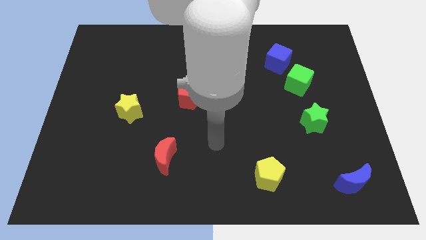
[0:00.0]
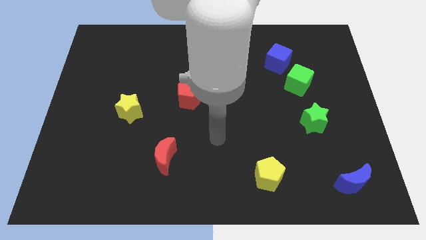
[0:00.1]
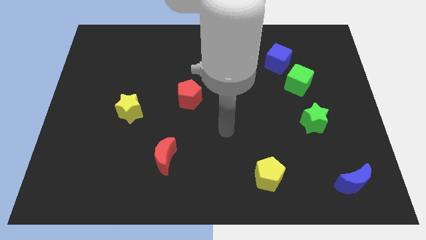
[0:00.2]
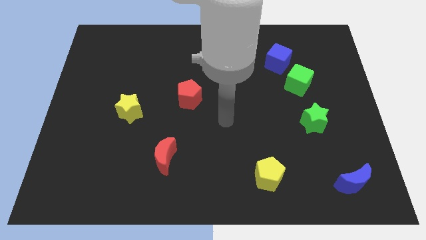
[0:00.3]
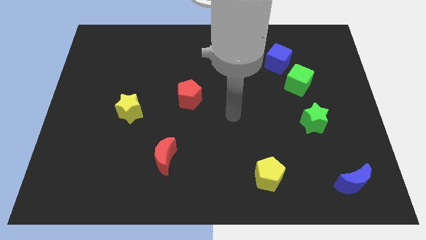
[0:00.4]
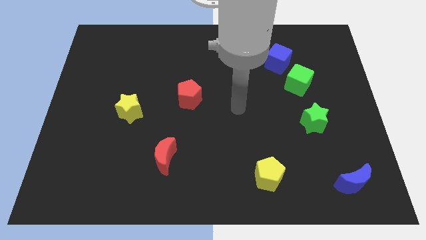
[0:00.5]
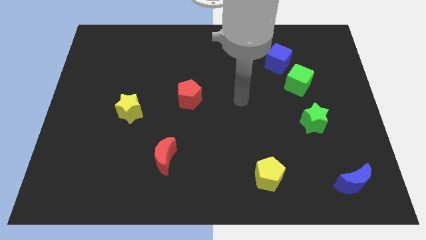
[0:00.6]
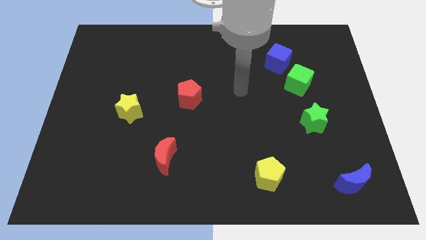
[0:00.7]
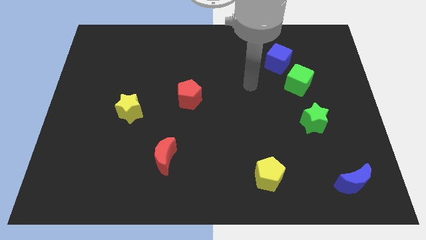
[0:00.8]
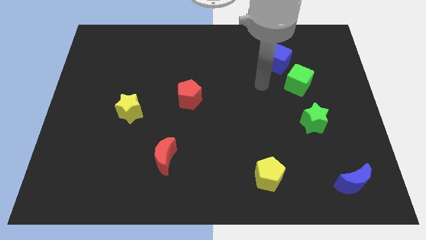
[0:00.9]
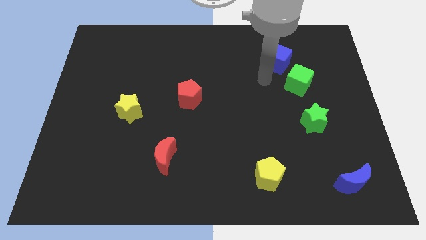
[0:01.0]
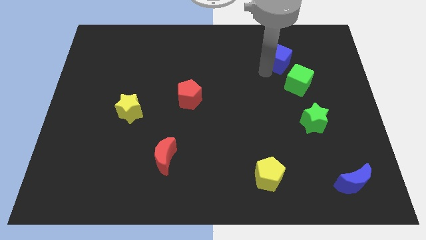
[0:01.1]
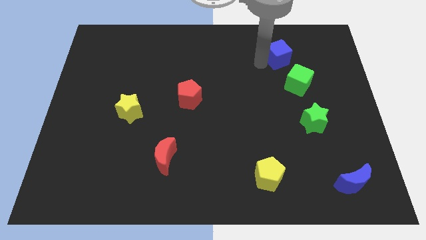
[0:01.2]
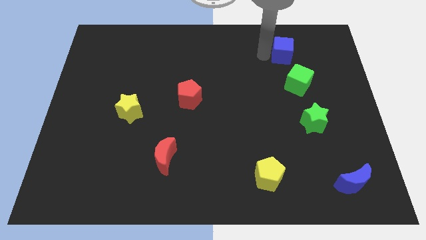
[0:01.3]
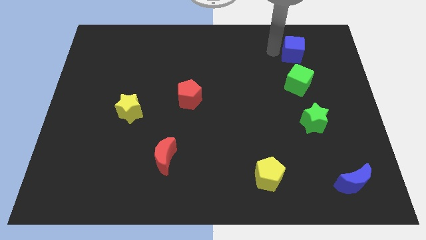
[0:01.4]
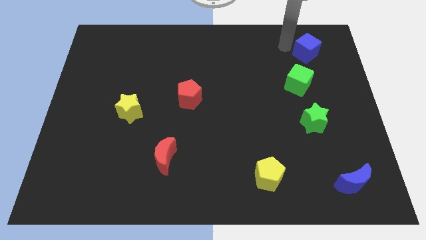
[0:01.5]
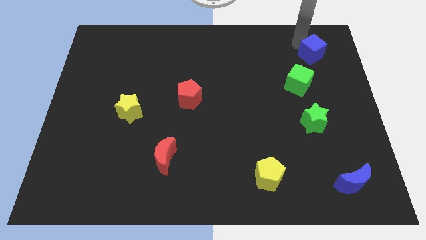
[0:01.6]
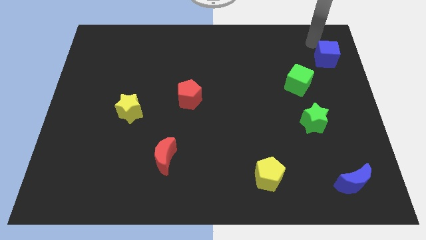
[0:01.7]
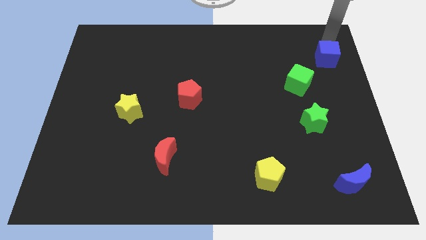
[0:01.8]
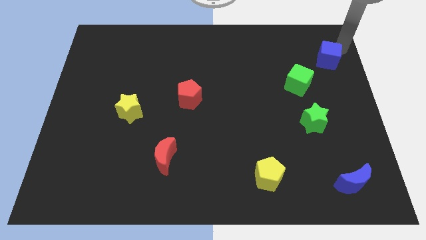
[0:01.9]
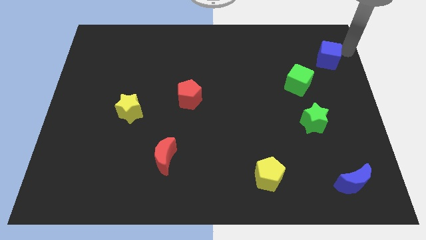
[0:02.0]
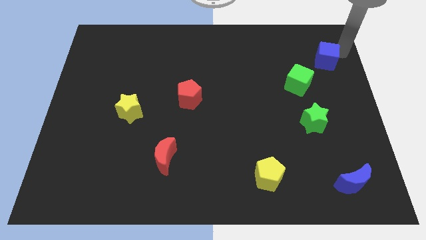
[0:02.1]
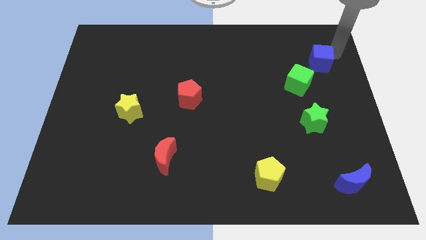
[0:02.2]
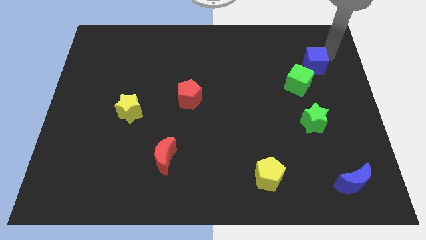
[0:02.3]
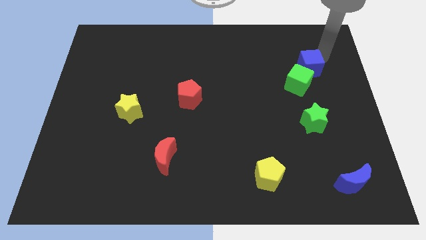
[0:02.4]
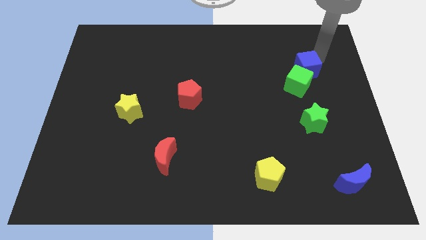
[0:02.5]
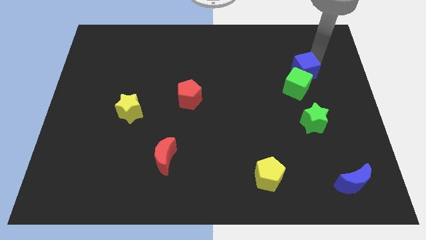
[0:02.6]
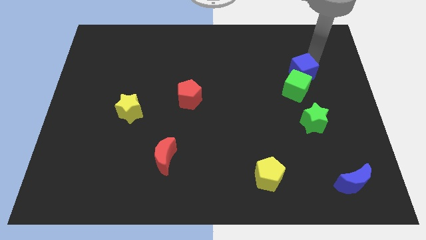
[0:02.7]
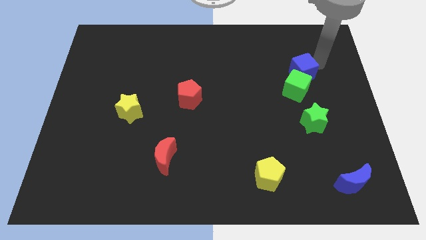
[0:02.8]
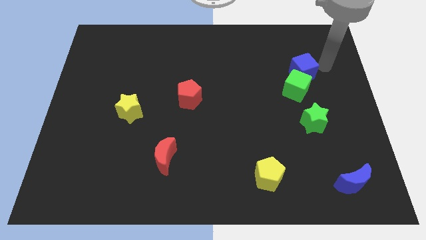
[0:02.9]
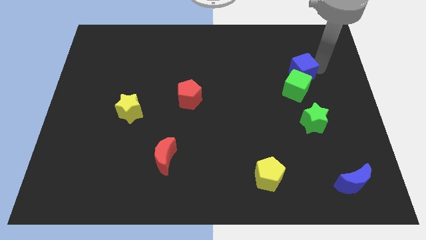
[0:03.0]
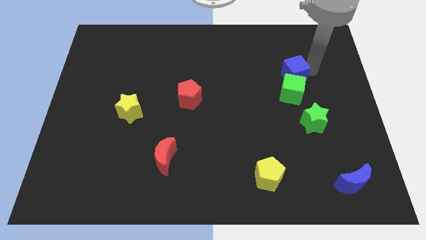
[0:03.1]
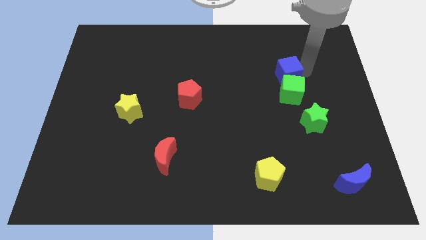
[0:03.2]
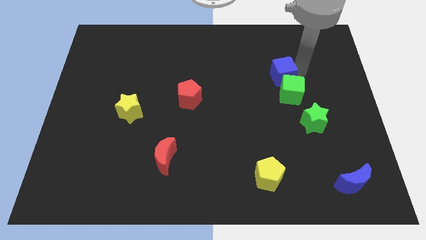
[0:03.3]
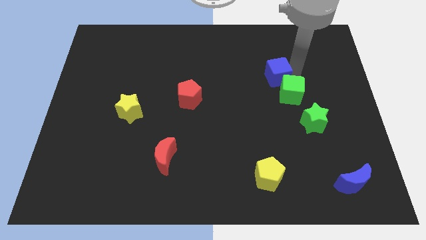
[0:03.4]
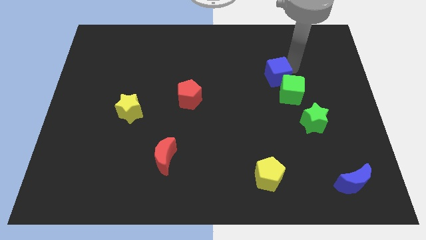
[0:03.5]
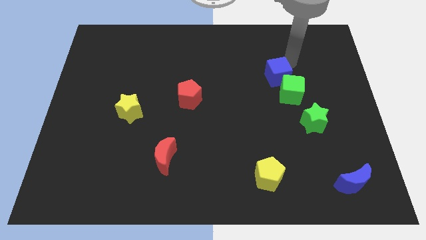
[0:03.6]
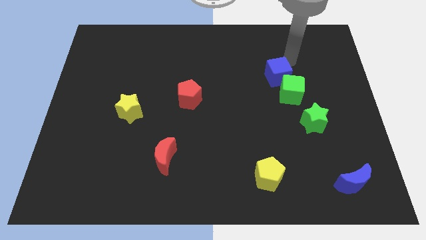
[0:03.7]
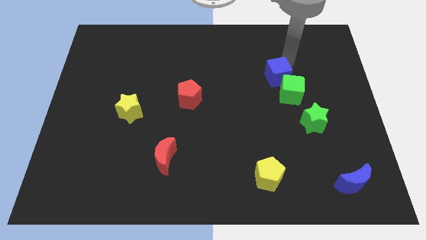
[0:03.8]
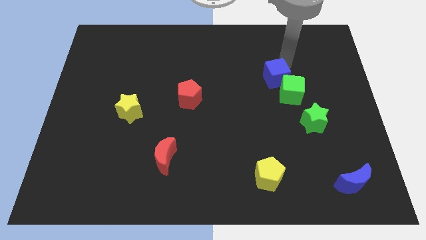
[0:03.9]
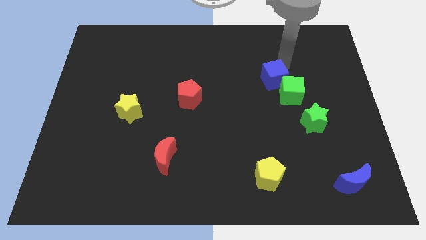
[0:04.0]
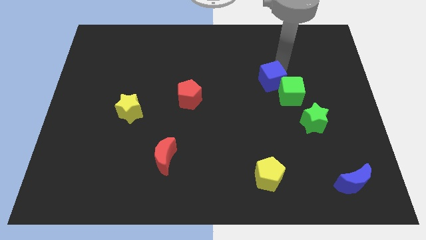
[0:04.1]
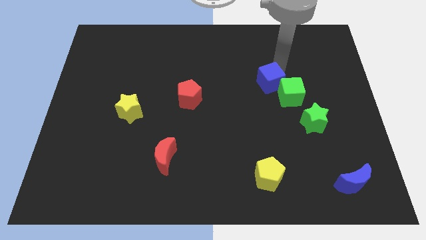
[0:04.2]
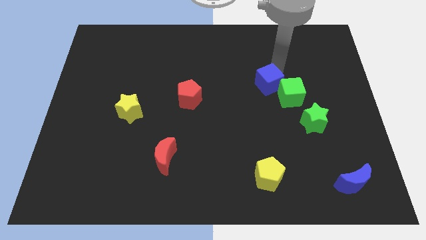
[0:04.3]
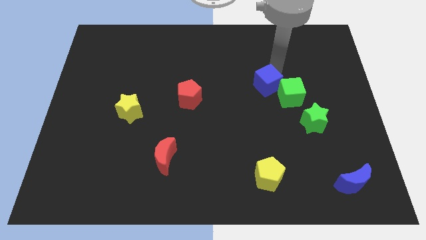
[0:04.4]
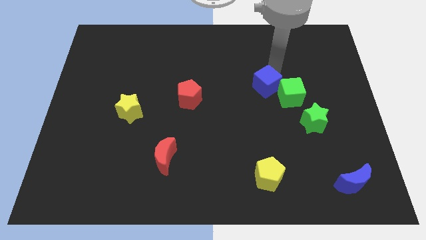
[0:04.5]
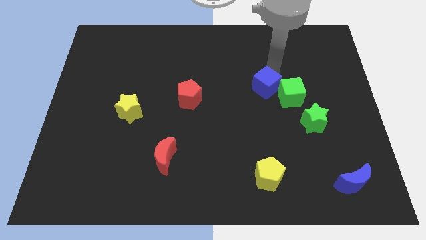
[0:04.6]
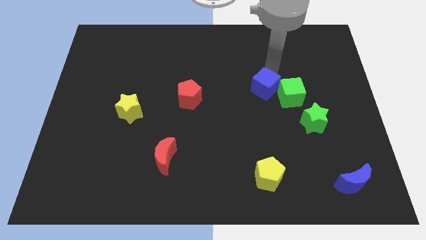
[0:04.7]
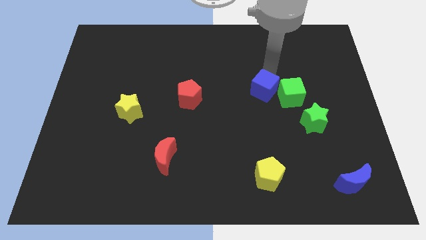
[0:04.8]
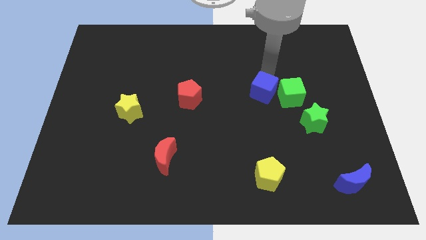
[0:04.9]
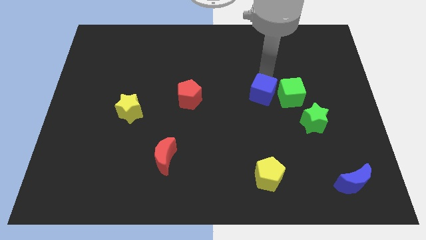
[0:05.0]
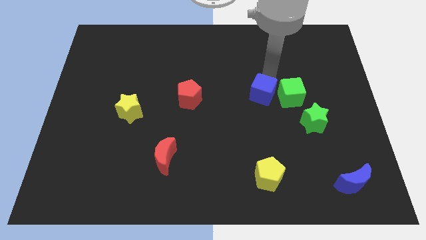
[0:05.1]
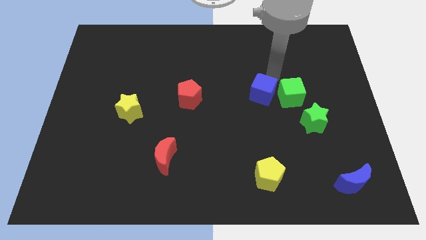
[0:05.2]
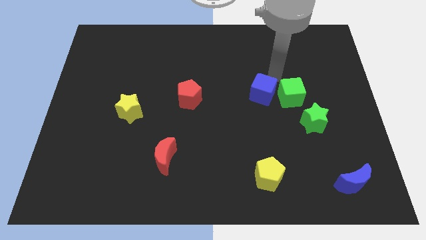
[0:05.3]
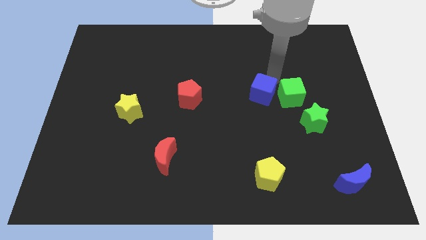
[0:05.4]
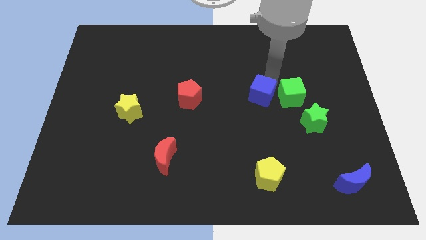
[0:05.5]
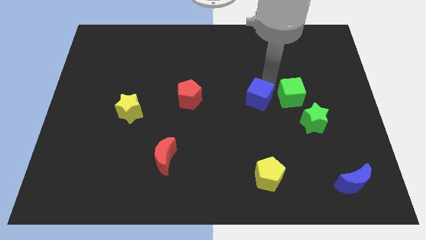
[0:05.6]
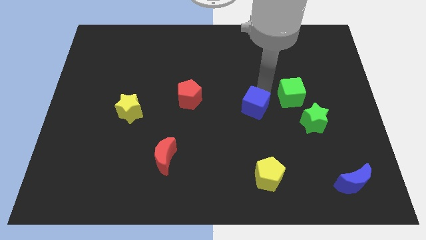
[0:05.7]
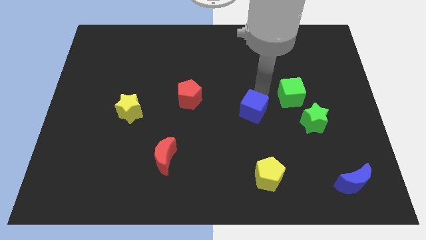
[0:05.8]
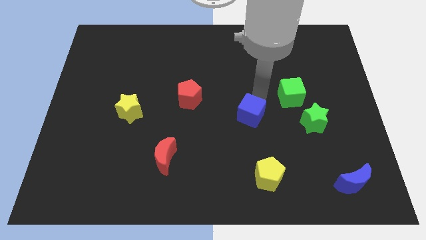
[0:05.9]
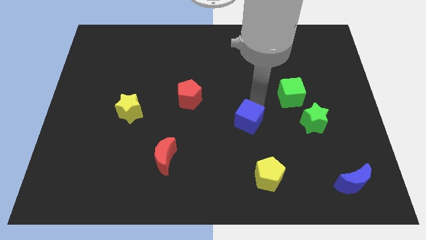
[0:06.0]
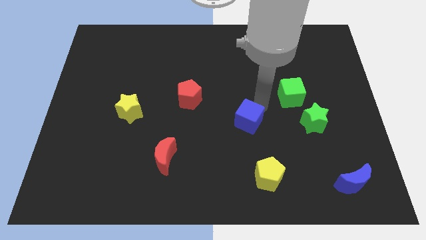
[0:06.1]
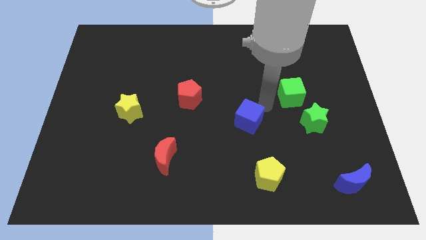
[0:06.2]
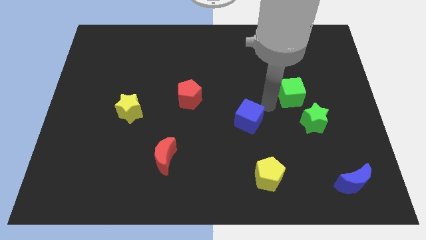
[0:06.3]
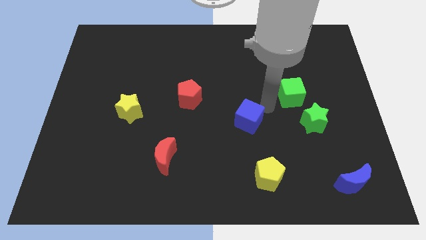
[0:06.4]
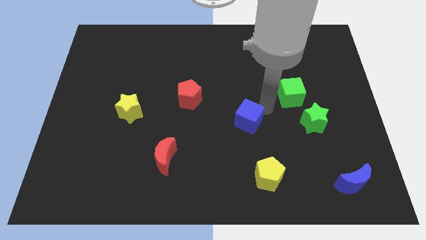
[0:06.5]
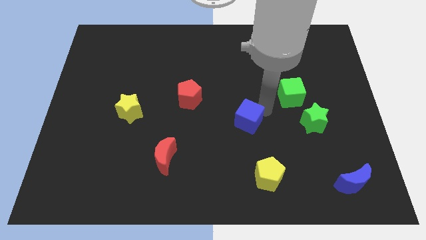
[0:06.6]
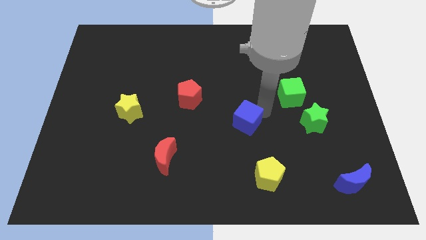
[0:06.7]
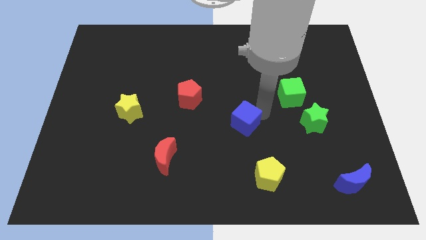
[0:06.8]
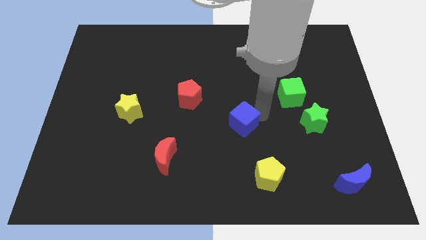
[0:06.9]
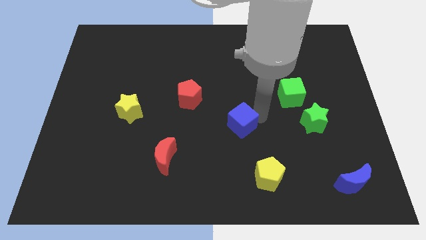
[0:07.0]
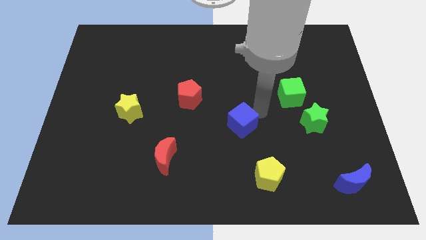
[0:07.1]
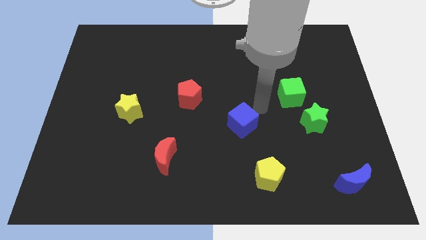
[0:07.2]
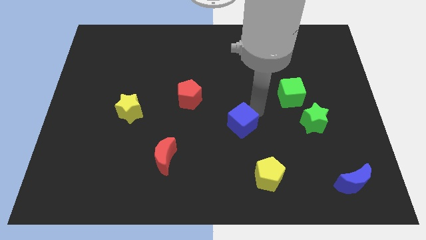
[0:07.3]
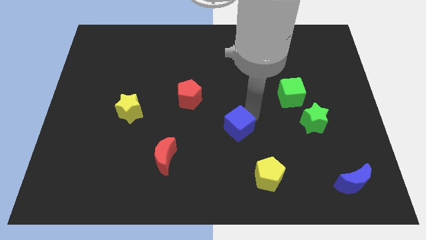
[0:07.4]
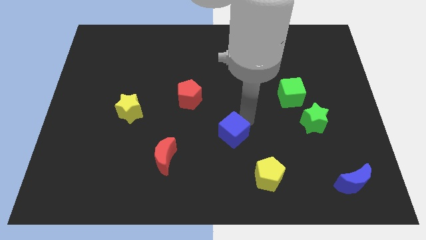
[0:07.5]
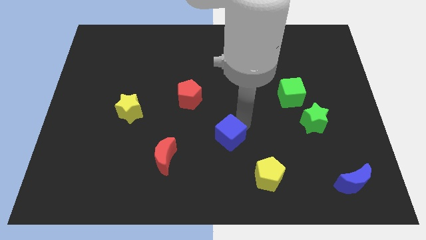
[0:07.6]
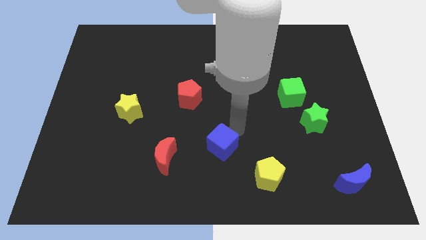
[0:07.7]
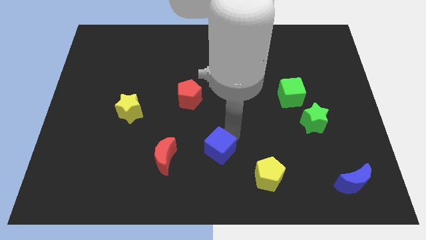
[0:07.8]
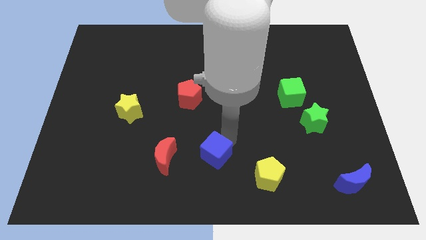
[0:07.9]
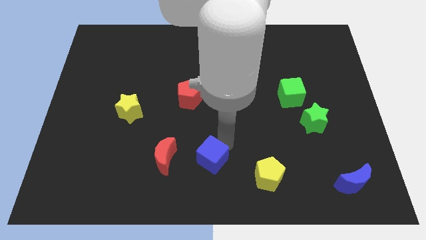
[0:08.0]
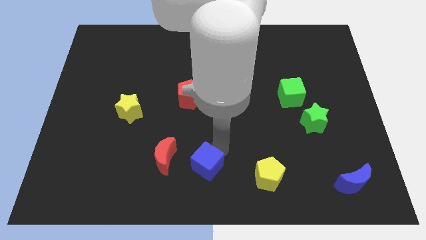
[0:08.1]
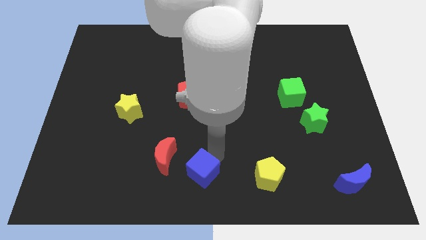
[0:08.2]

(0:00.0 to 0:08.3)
move the blue cube to the bottom right of the red moon
